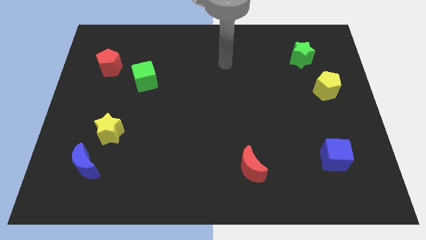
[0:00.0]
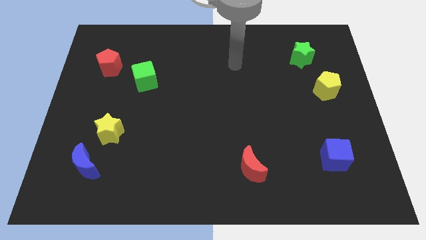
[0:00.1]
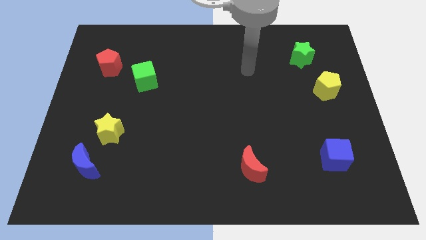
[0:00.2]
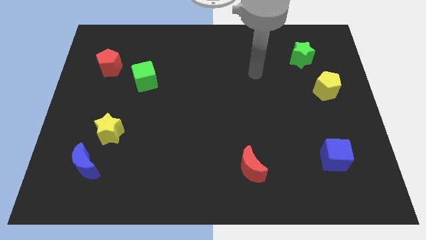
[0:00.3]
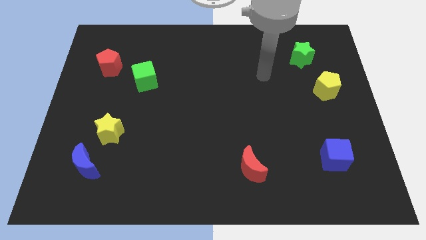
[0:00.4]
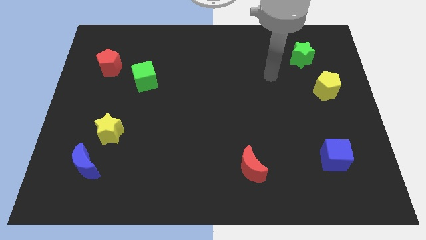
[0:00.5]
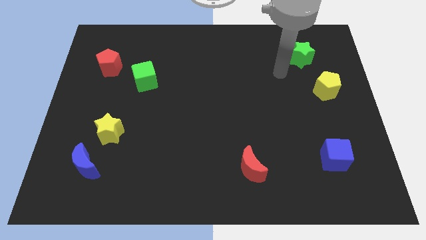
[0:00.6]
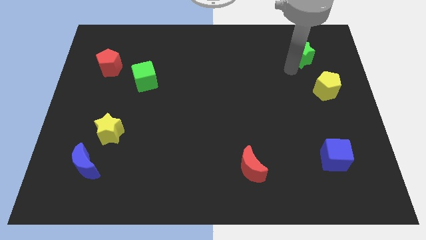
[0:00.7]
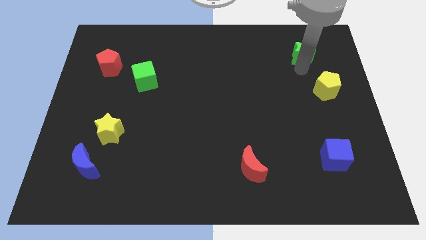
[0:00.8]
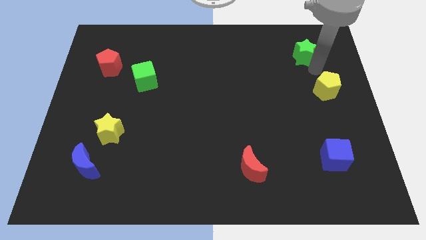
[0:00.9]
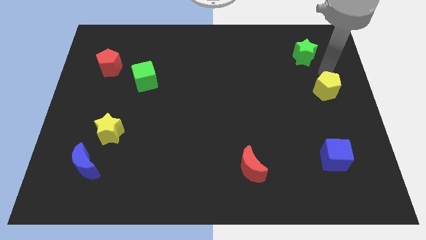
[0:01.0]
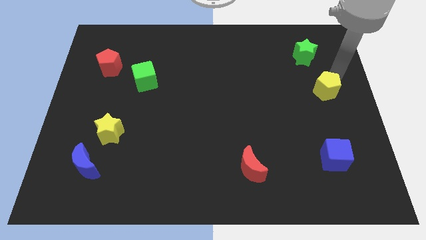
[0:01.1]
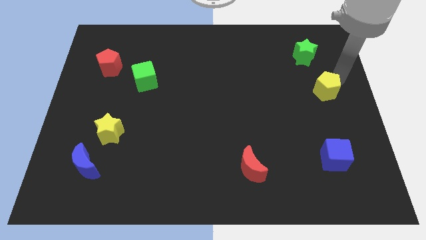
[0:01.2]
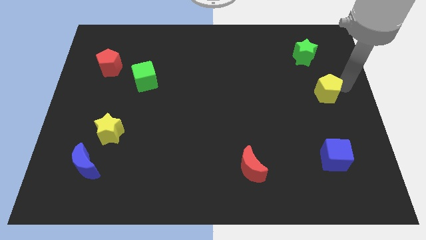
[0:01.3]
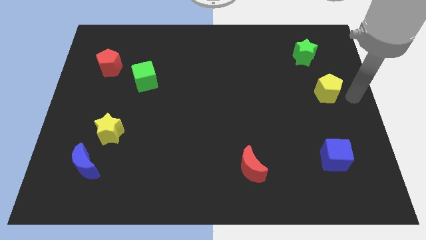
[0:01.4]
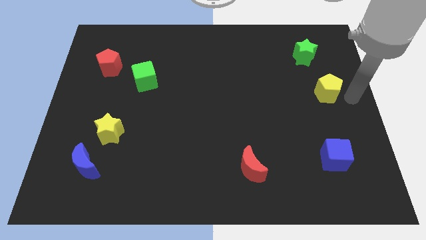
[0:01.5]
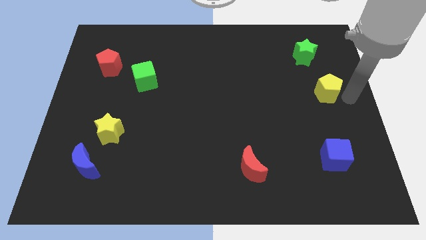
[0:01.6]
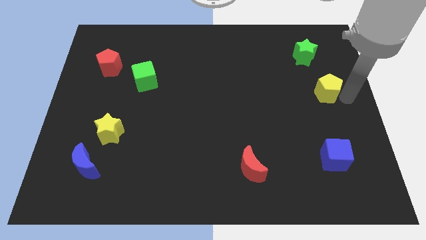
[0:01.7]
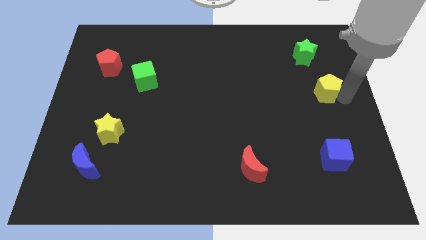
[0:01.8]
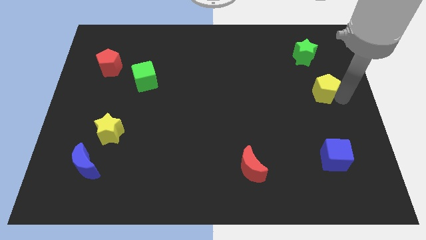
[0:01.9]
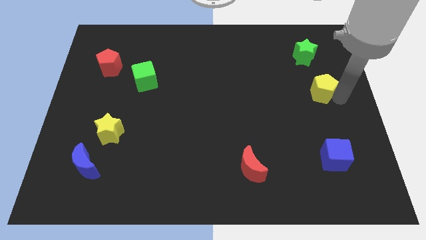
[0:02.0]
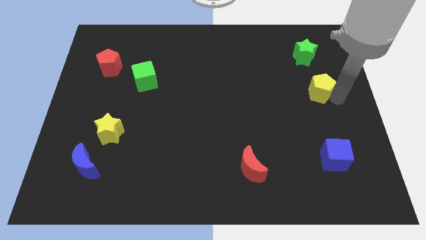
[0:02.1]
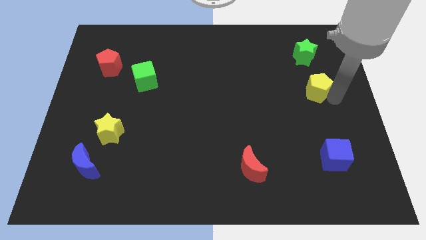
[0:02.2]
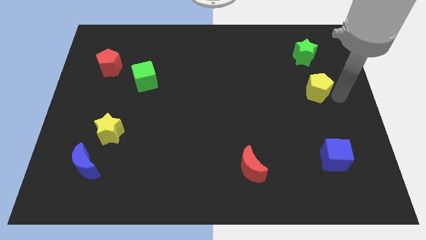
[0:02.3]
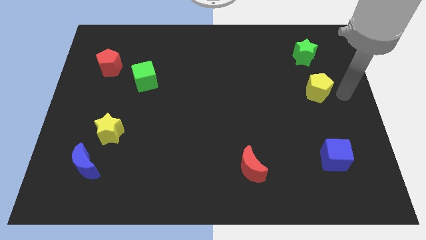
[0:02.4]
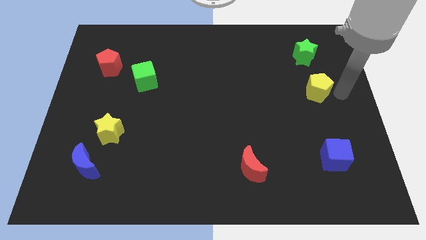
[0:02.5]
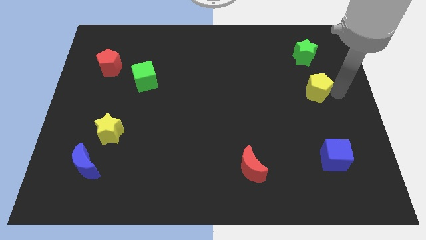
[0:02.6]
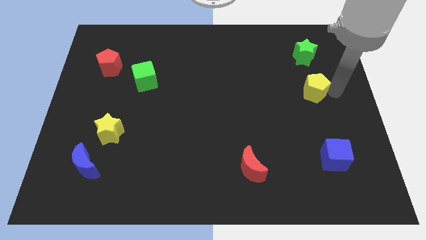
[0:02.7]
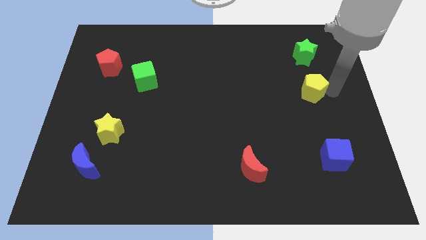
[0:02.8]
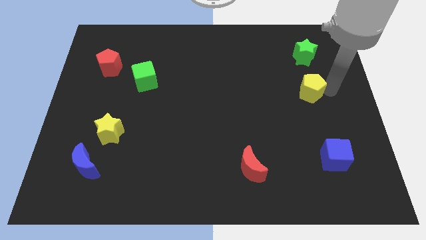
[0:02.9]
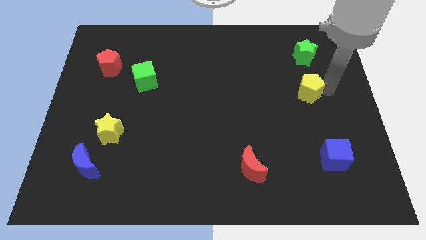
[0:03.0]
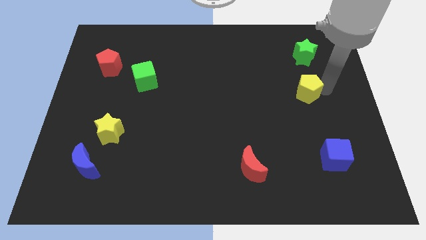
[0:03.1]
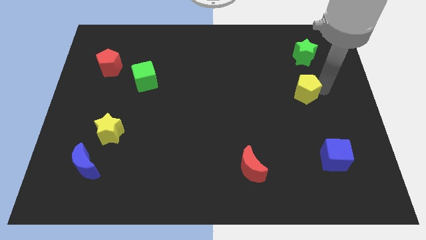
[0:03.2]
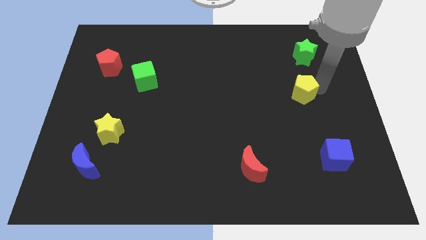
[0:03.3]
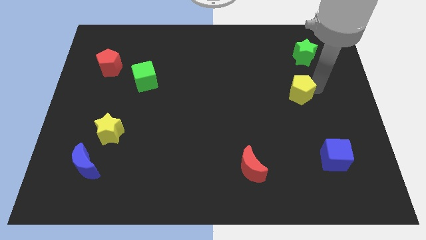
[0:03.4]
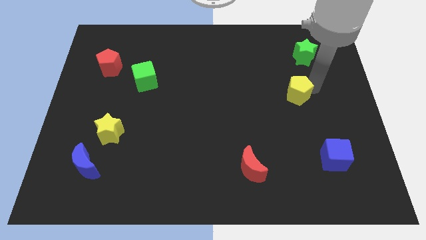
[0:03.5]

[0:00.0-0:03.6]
slightly slide the yellow pentagon to the left

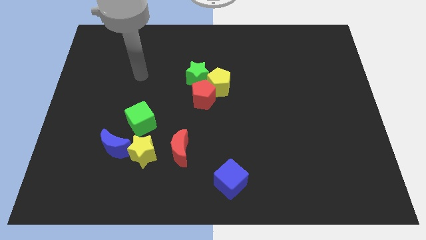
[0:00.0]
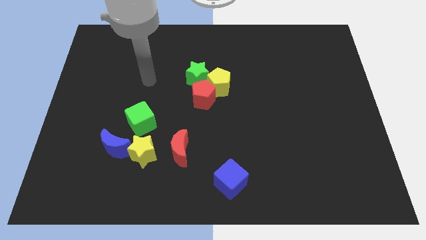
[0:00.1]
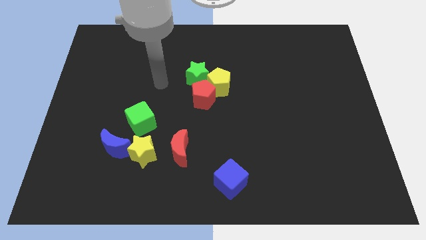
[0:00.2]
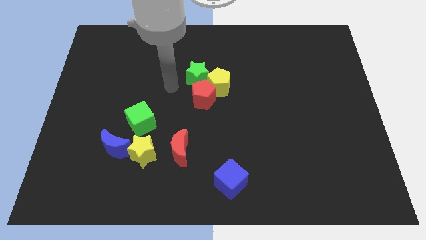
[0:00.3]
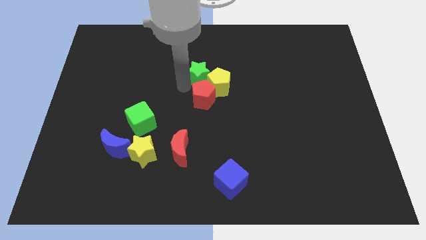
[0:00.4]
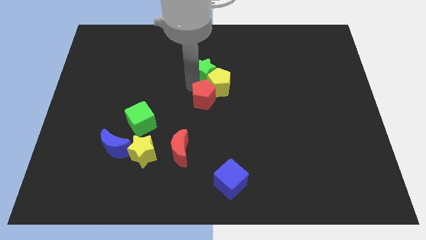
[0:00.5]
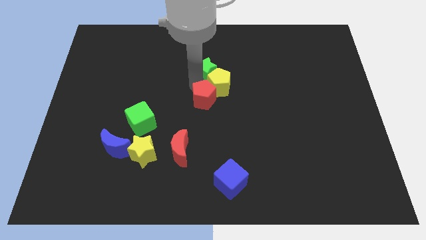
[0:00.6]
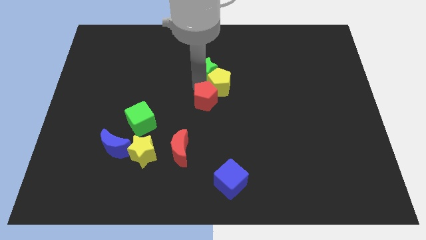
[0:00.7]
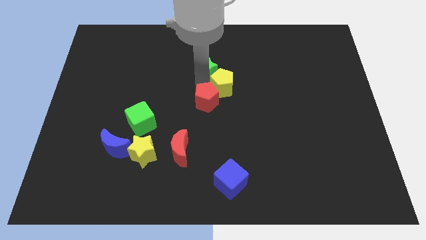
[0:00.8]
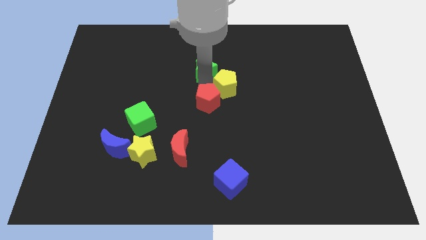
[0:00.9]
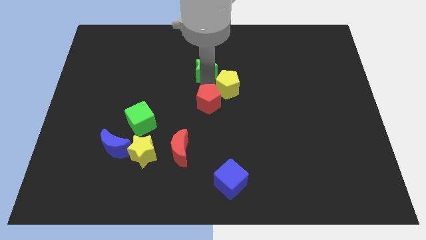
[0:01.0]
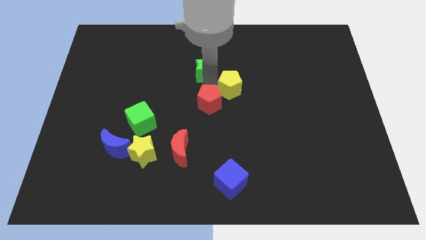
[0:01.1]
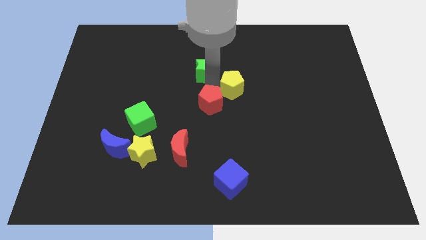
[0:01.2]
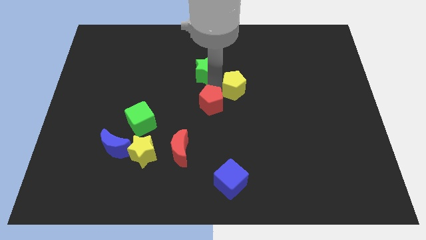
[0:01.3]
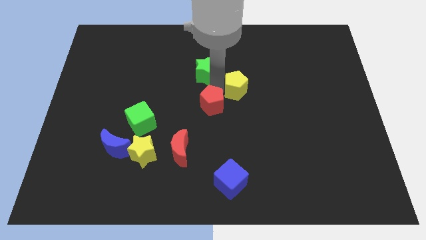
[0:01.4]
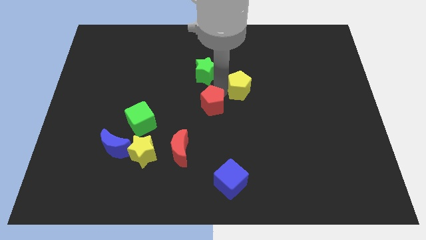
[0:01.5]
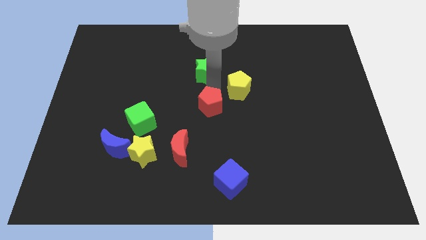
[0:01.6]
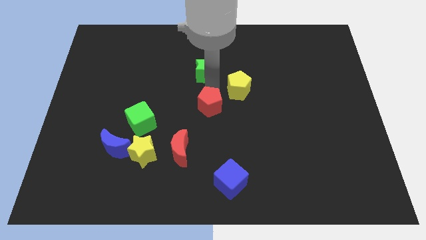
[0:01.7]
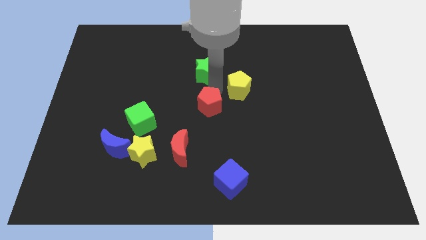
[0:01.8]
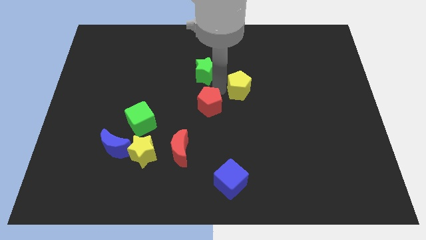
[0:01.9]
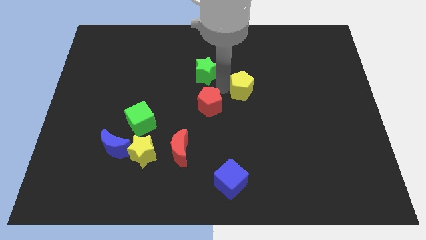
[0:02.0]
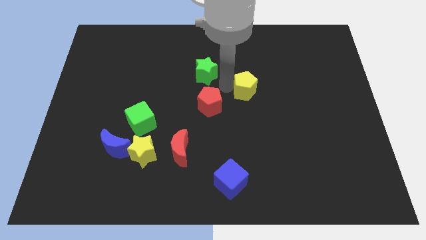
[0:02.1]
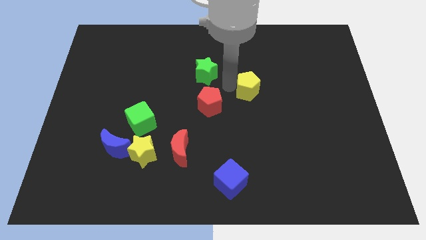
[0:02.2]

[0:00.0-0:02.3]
slightly push the yellow pentagon to the right

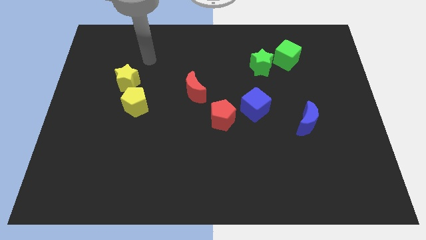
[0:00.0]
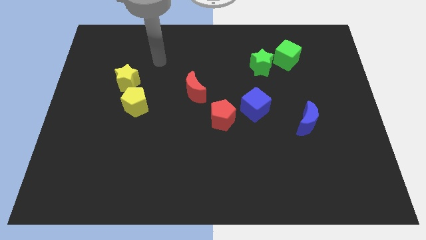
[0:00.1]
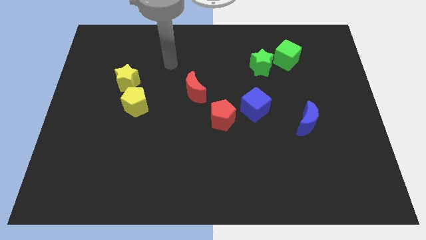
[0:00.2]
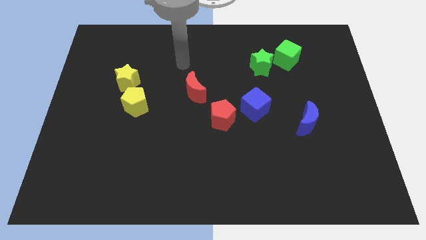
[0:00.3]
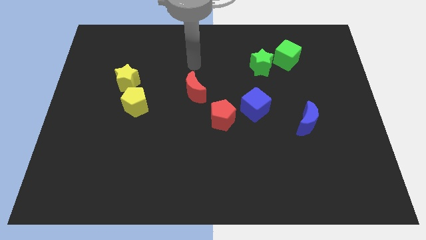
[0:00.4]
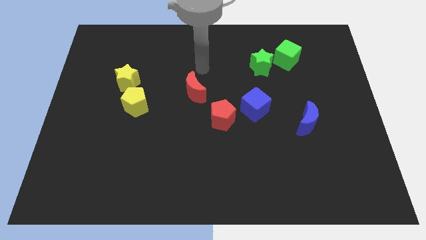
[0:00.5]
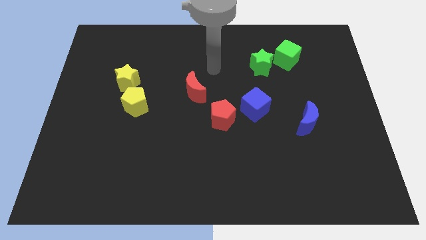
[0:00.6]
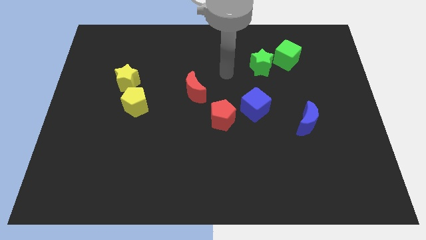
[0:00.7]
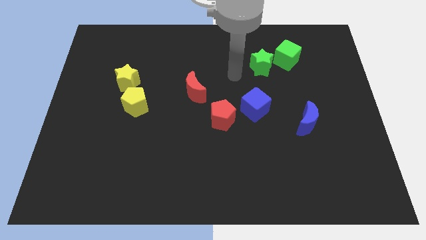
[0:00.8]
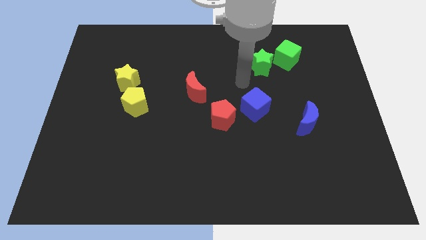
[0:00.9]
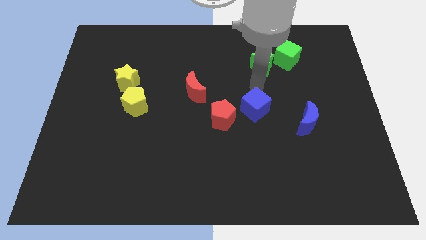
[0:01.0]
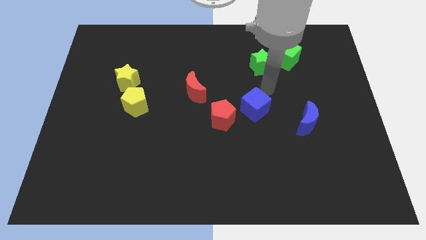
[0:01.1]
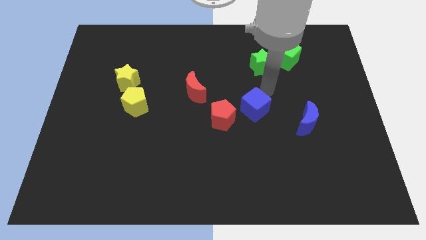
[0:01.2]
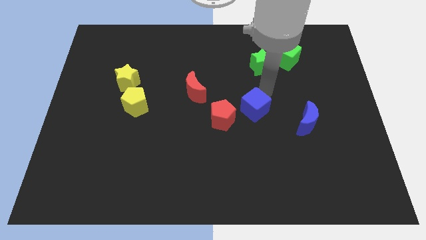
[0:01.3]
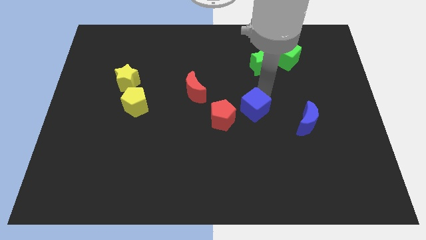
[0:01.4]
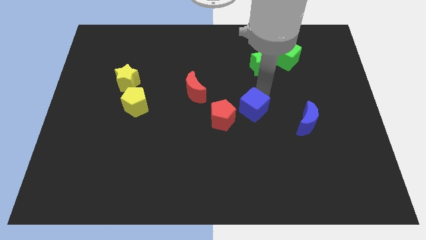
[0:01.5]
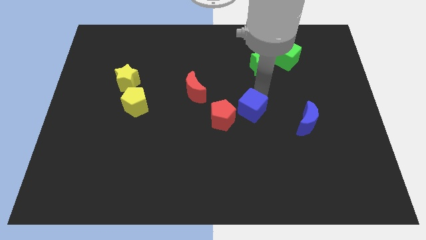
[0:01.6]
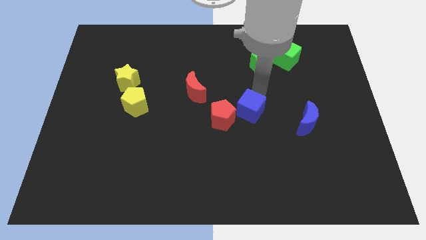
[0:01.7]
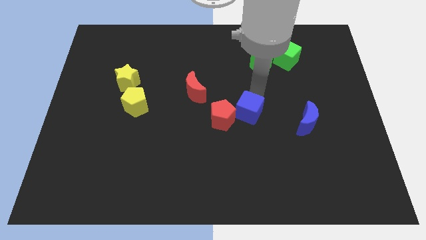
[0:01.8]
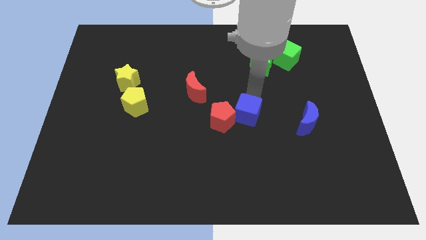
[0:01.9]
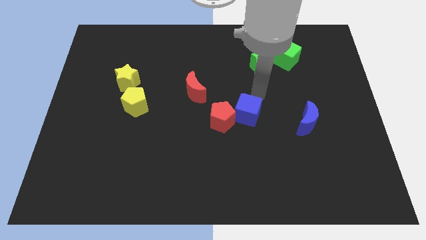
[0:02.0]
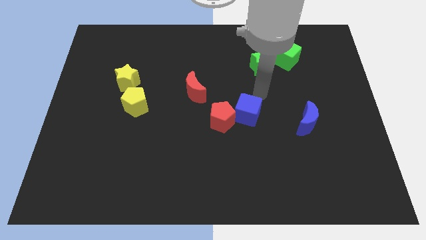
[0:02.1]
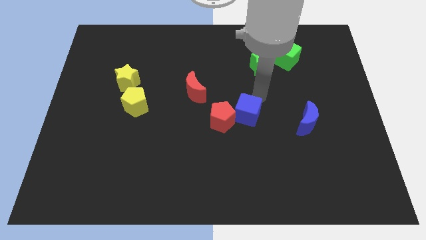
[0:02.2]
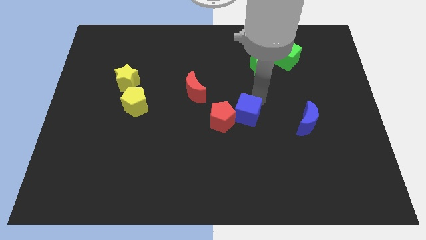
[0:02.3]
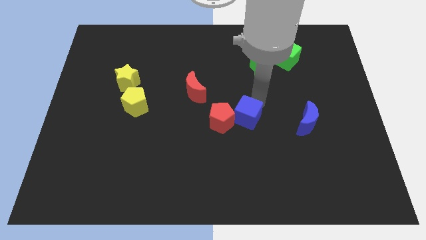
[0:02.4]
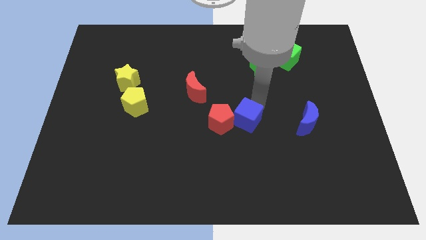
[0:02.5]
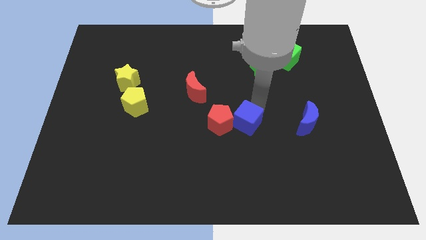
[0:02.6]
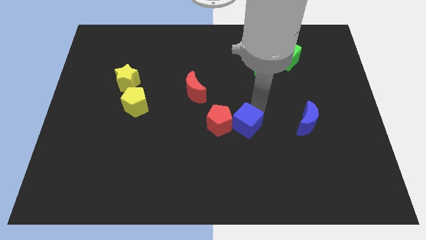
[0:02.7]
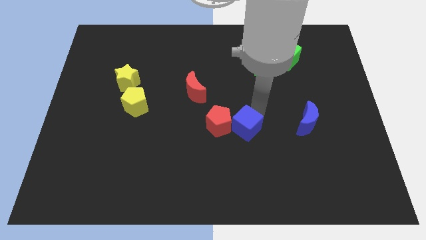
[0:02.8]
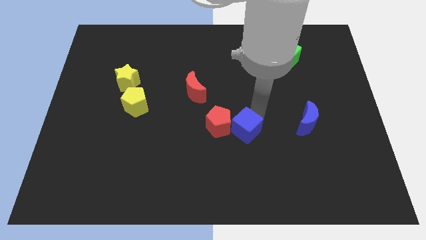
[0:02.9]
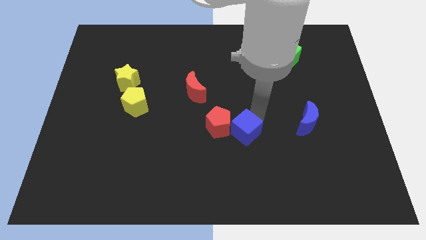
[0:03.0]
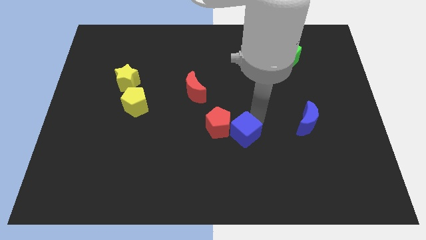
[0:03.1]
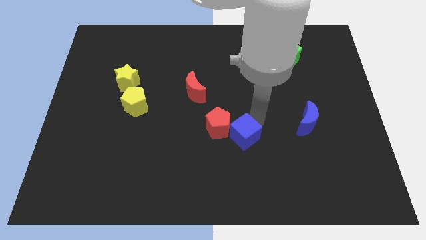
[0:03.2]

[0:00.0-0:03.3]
push the blue cube slightly downwards and then left
